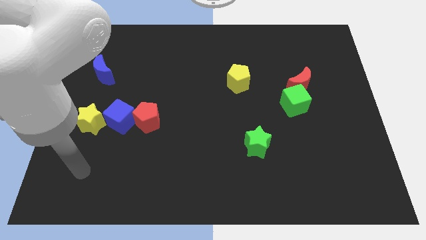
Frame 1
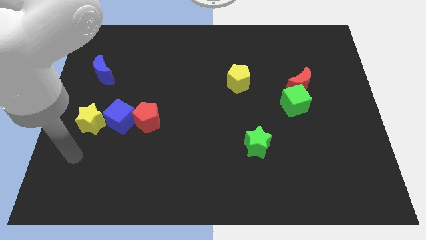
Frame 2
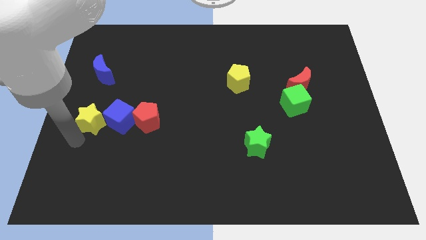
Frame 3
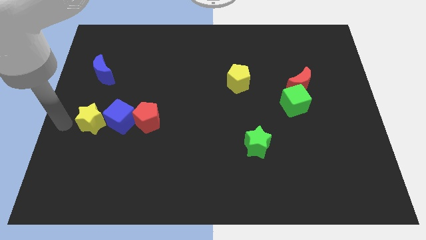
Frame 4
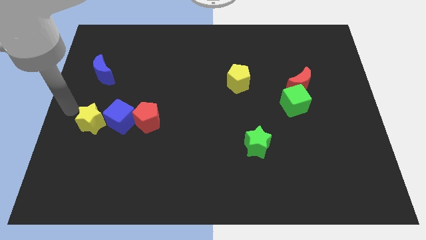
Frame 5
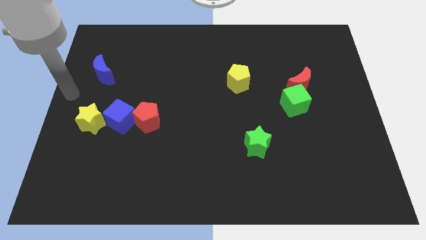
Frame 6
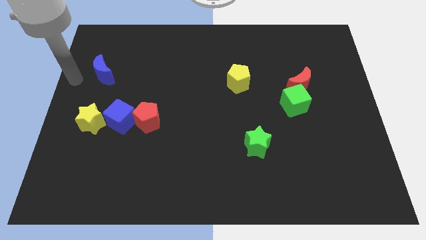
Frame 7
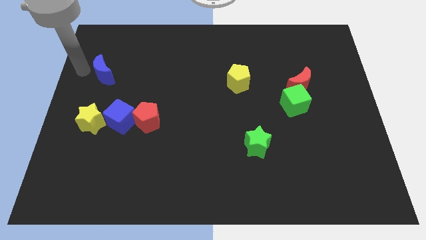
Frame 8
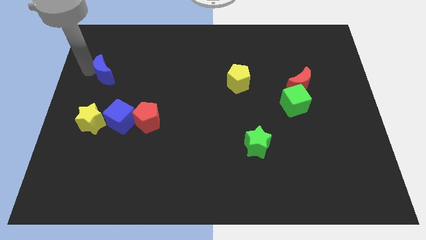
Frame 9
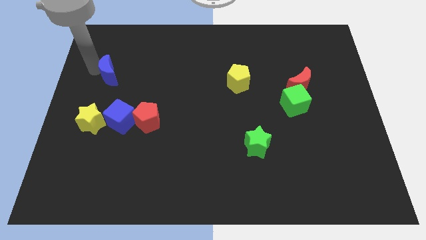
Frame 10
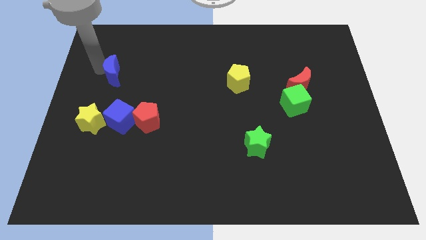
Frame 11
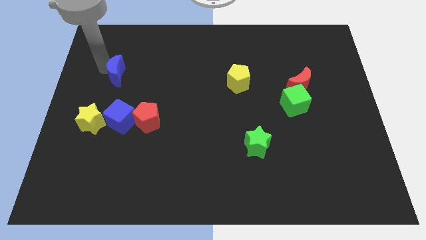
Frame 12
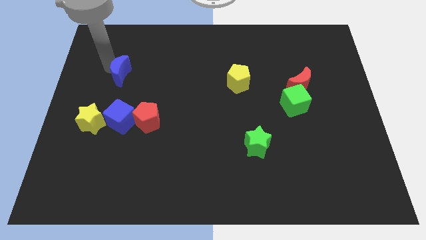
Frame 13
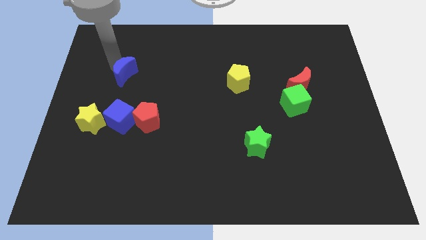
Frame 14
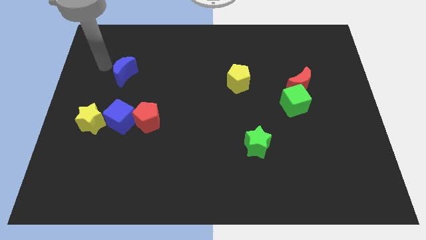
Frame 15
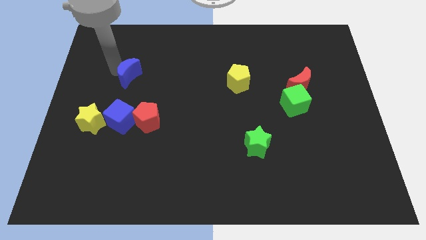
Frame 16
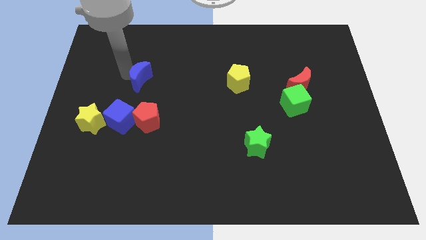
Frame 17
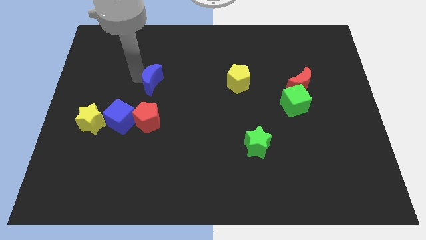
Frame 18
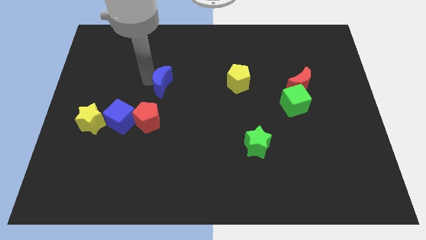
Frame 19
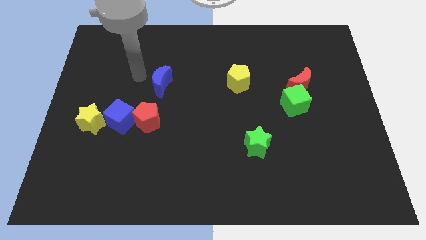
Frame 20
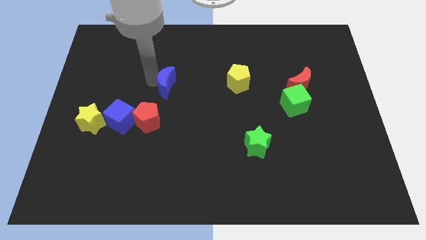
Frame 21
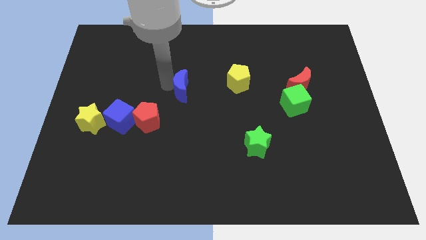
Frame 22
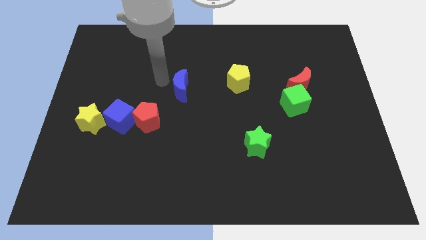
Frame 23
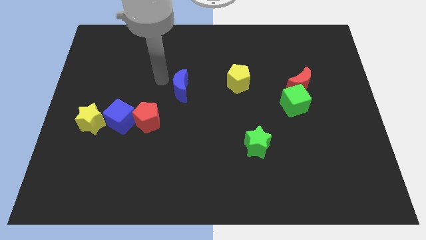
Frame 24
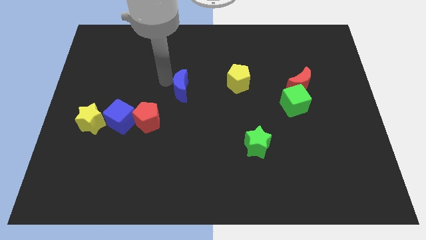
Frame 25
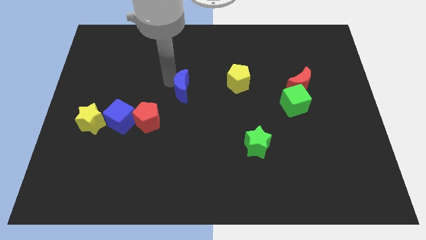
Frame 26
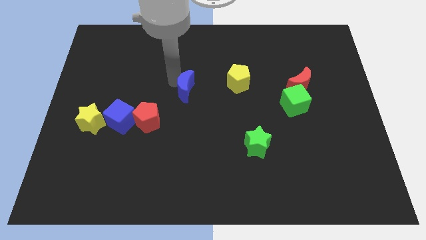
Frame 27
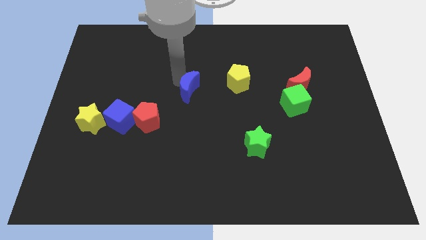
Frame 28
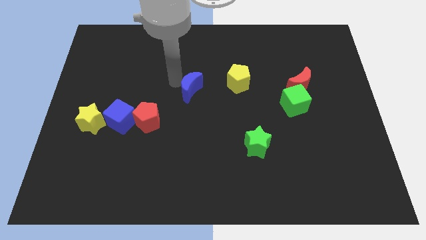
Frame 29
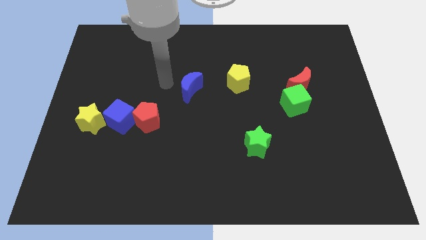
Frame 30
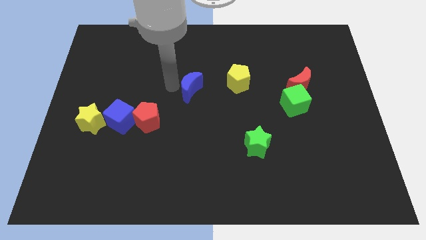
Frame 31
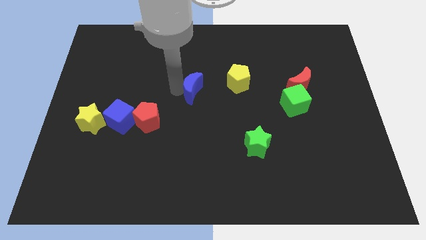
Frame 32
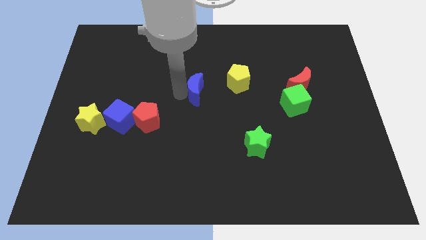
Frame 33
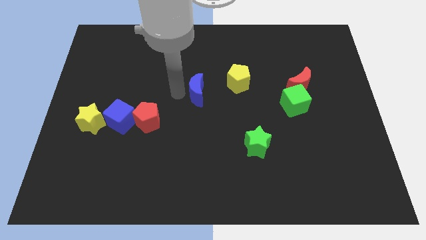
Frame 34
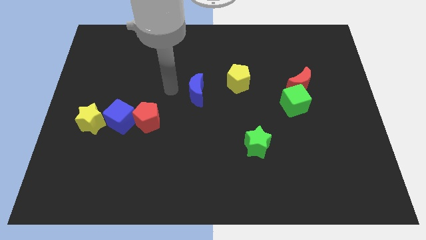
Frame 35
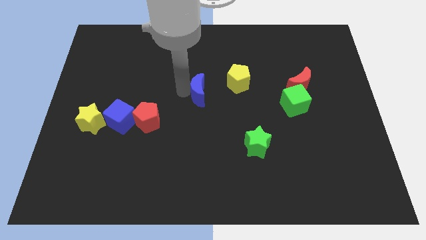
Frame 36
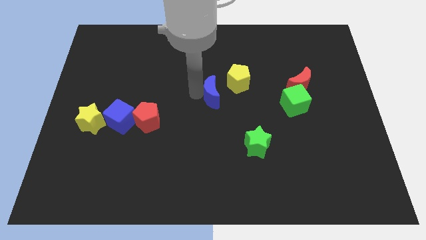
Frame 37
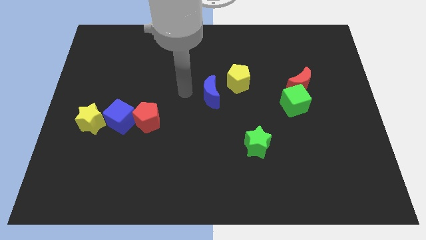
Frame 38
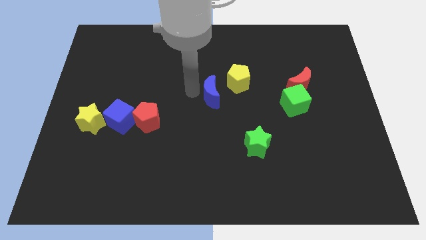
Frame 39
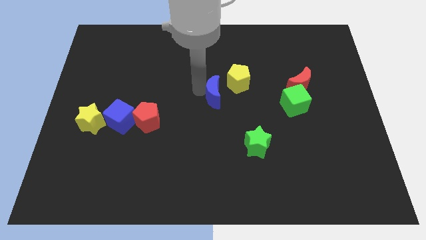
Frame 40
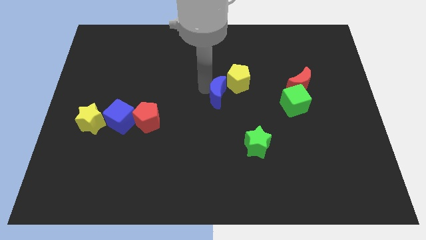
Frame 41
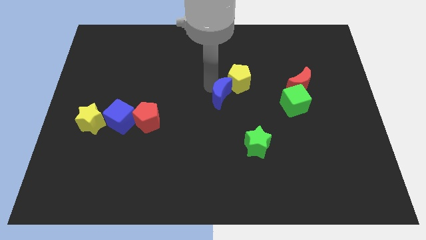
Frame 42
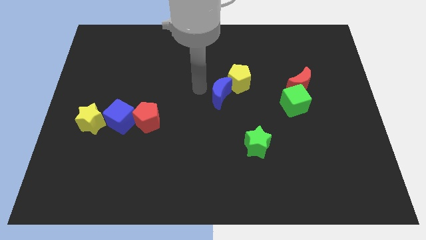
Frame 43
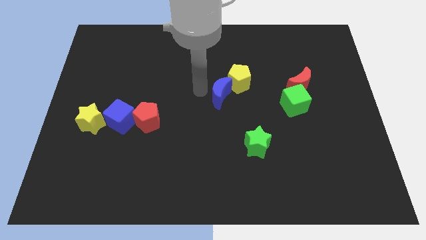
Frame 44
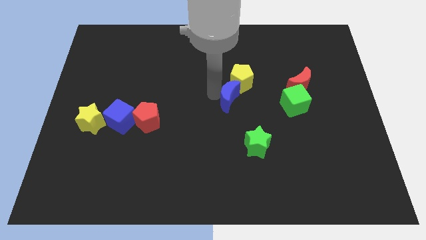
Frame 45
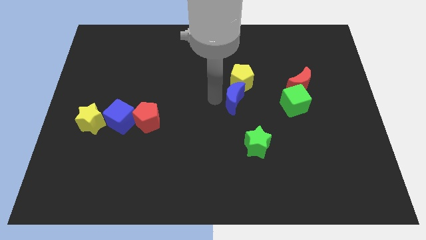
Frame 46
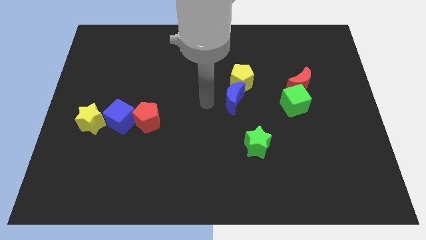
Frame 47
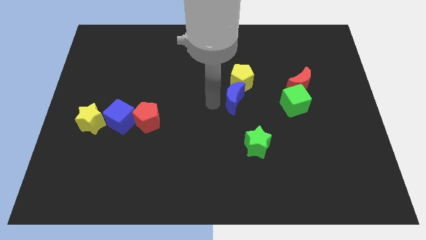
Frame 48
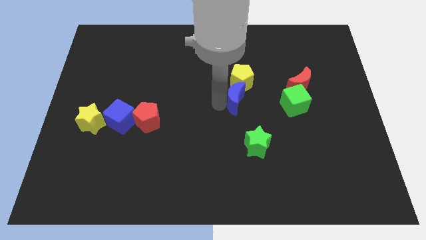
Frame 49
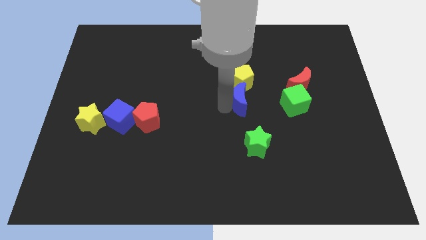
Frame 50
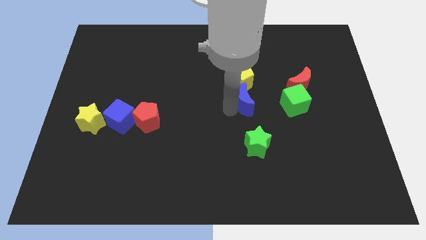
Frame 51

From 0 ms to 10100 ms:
slide the blue moon diagonally down and to the right of the yellow pentagon

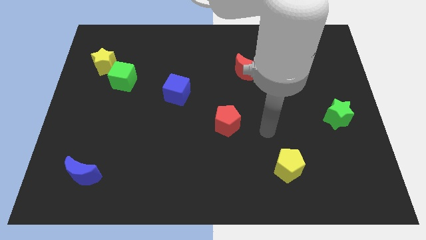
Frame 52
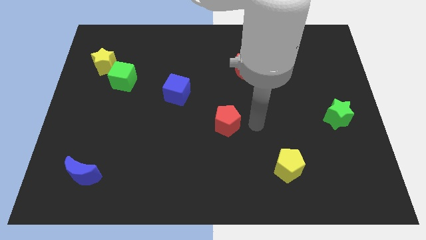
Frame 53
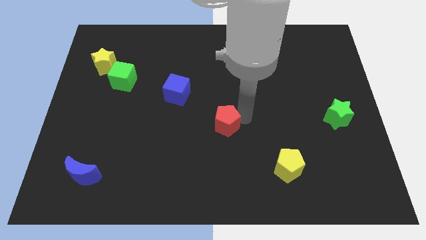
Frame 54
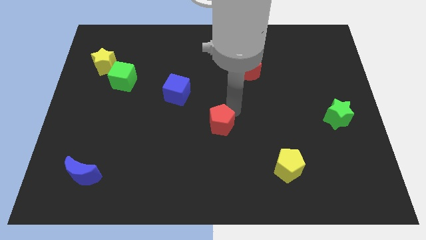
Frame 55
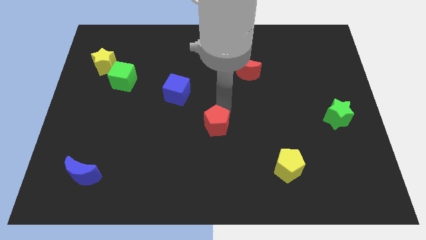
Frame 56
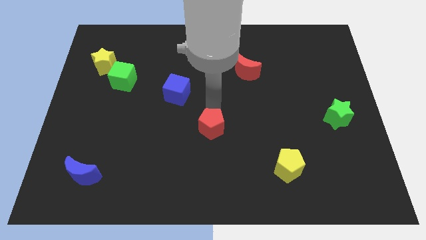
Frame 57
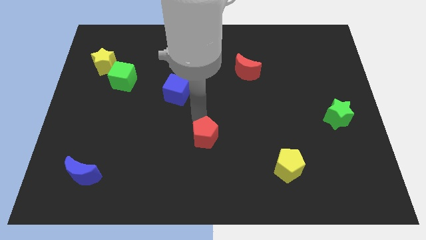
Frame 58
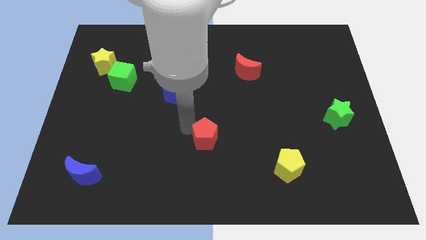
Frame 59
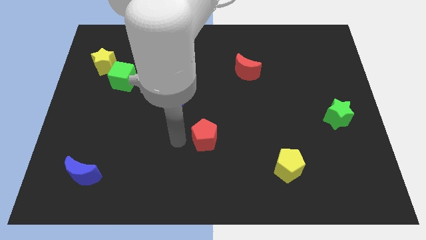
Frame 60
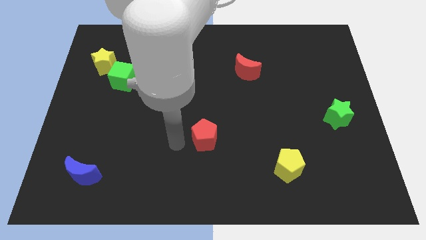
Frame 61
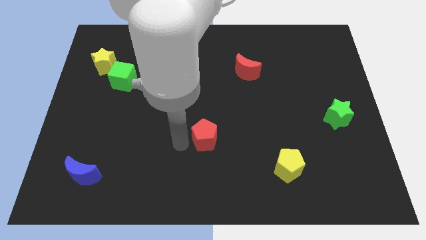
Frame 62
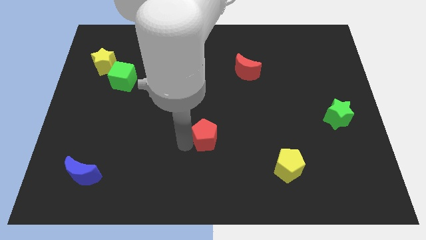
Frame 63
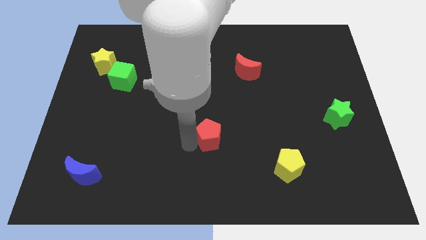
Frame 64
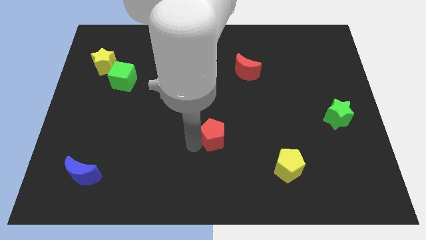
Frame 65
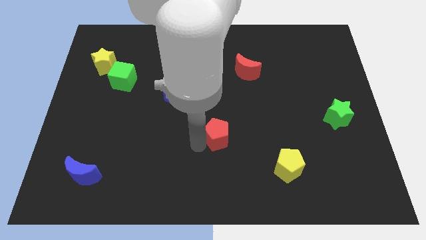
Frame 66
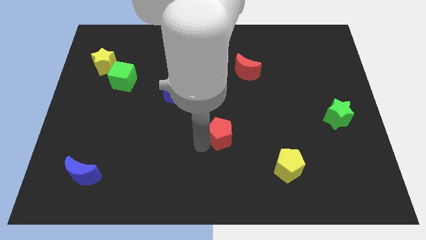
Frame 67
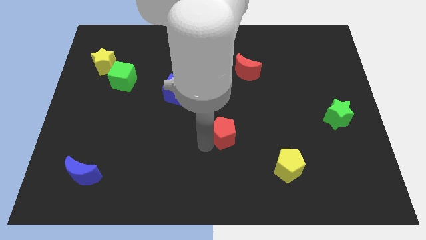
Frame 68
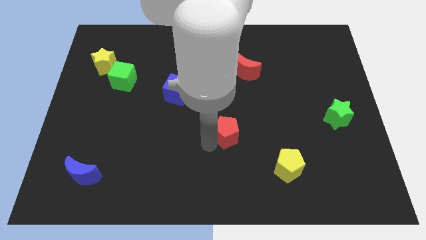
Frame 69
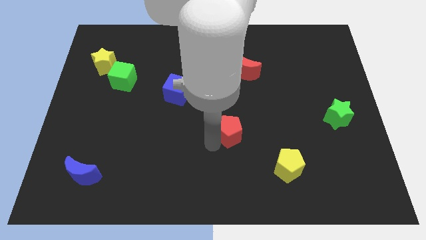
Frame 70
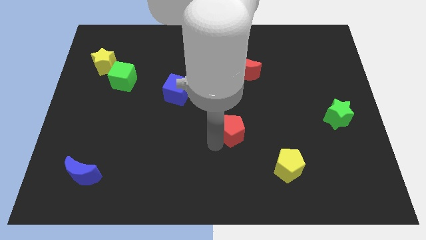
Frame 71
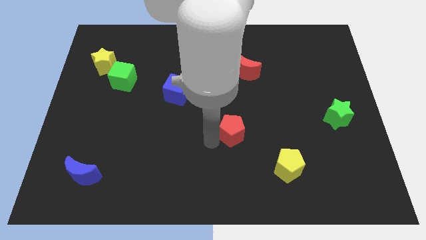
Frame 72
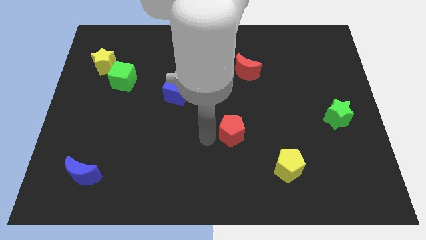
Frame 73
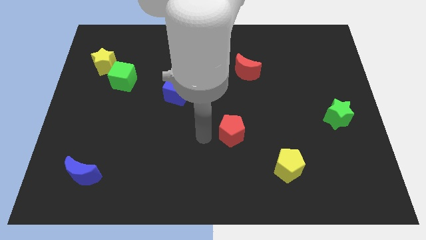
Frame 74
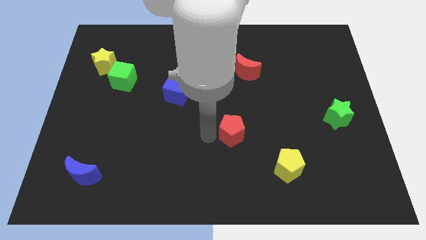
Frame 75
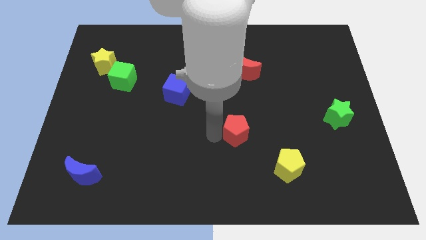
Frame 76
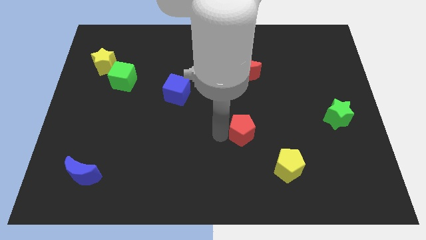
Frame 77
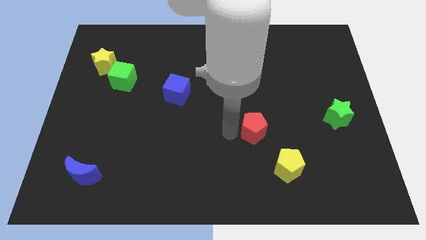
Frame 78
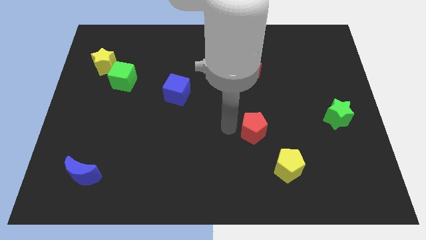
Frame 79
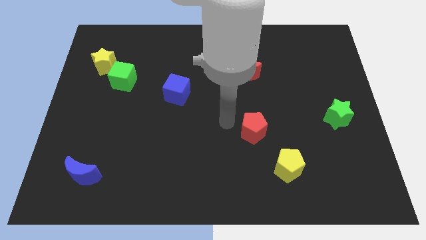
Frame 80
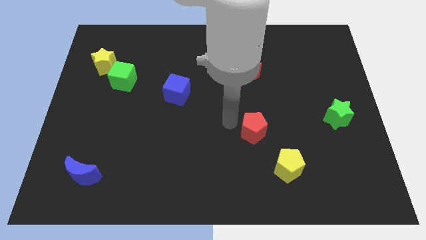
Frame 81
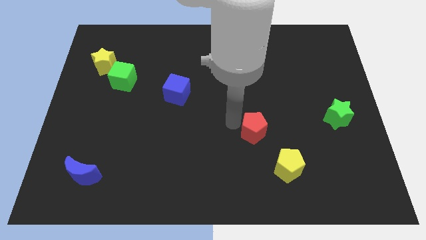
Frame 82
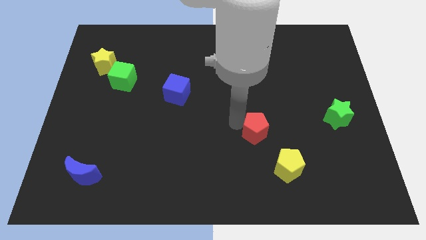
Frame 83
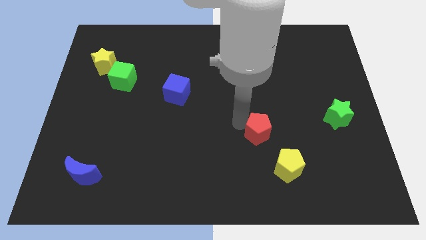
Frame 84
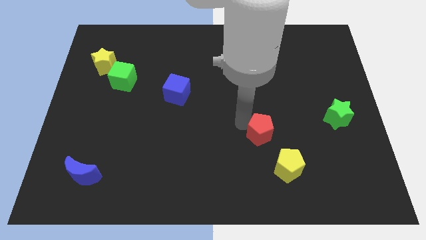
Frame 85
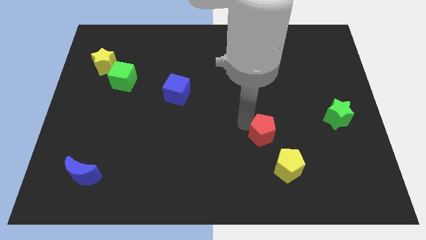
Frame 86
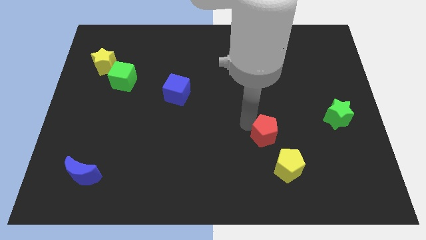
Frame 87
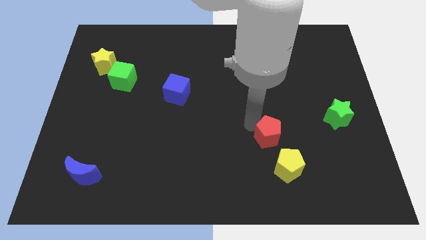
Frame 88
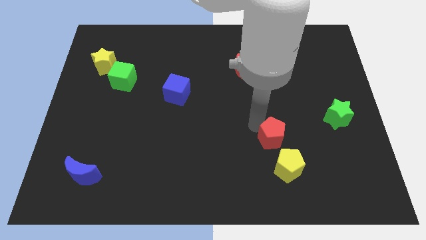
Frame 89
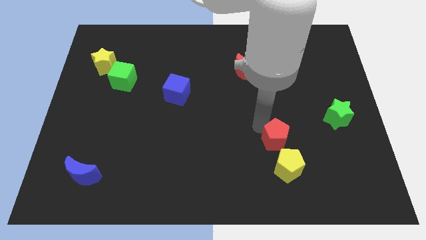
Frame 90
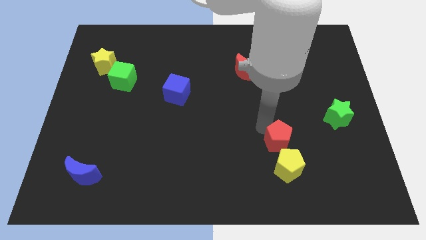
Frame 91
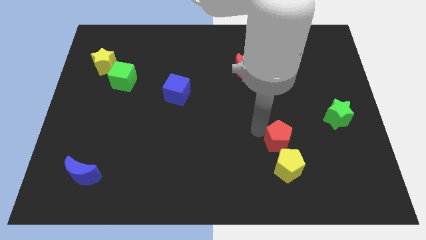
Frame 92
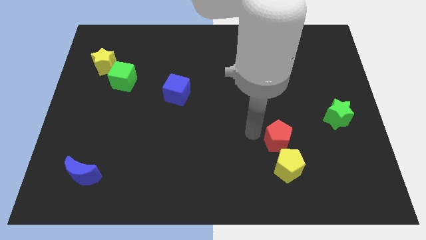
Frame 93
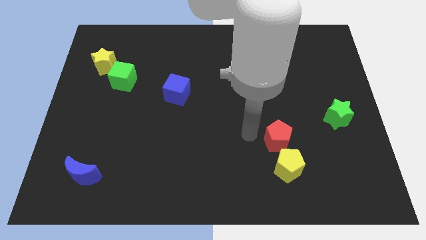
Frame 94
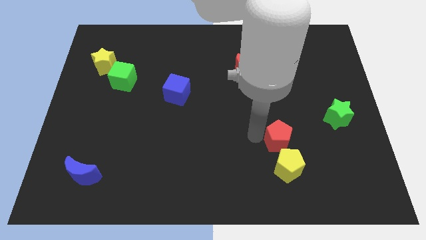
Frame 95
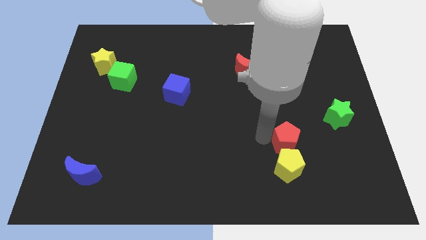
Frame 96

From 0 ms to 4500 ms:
slide the red pentagon to the top right side of the yellow pentagon
